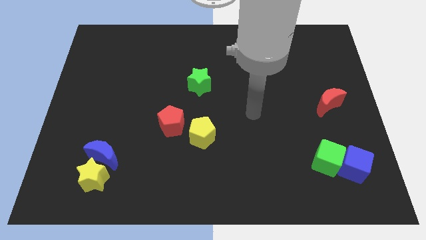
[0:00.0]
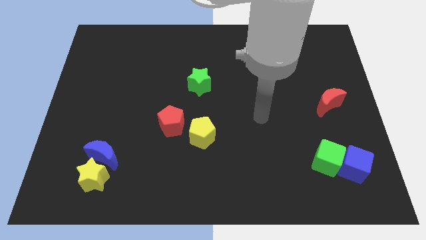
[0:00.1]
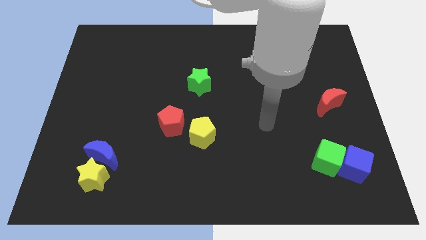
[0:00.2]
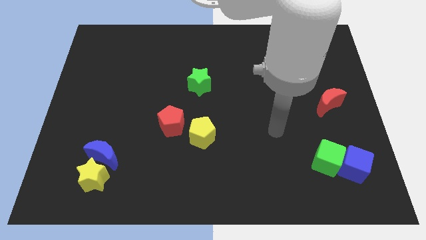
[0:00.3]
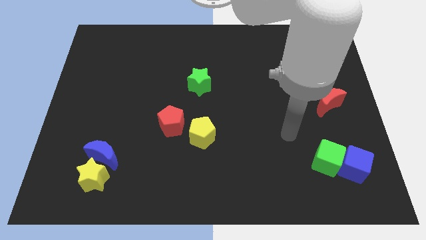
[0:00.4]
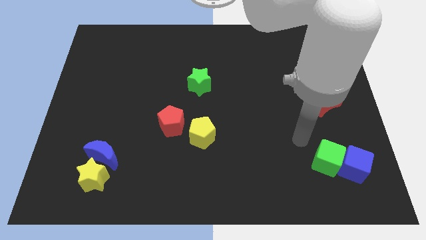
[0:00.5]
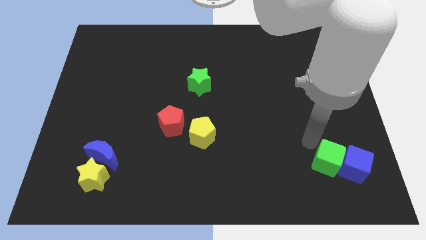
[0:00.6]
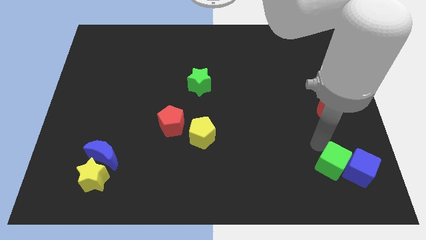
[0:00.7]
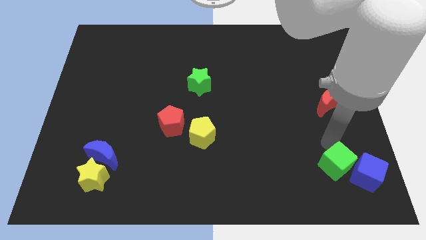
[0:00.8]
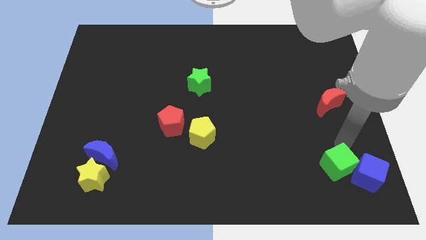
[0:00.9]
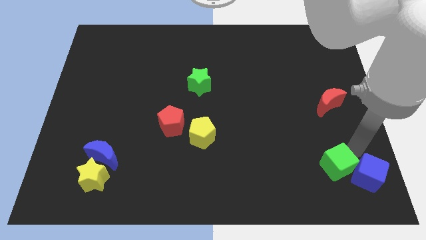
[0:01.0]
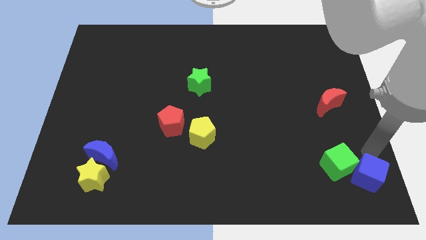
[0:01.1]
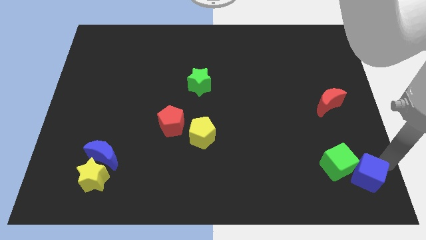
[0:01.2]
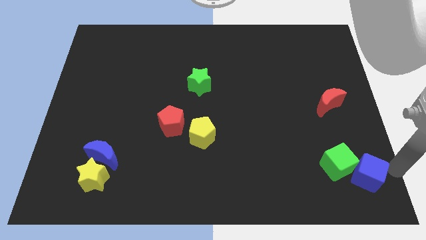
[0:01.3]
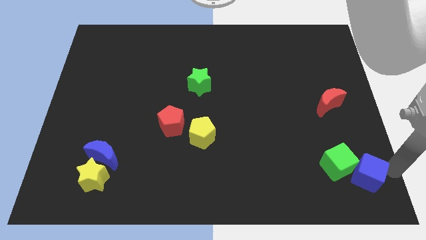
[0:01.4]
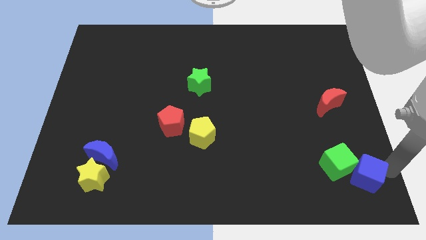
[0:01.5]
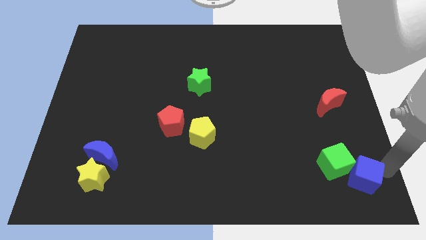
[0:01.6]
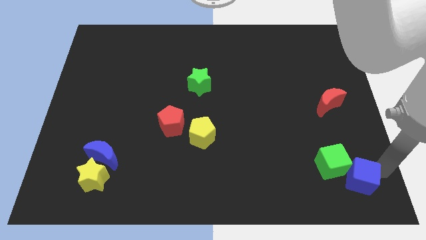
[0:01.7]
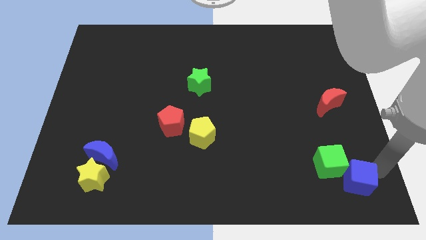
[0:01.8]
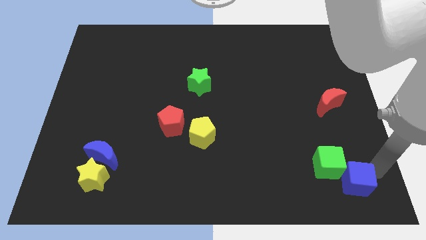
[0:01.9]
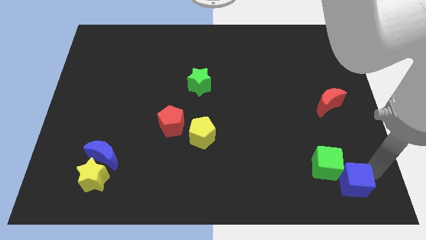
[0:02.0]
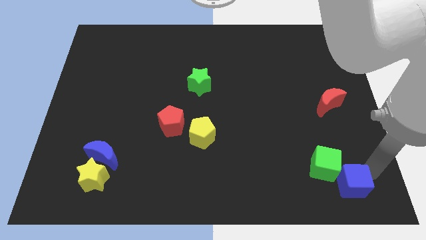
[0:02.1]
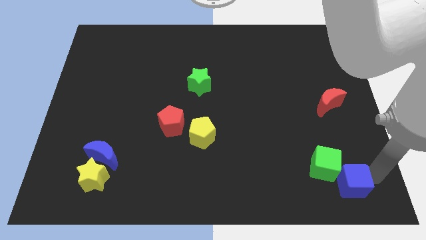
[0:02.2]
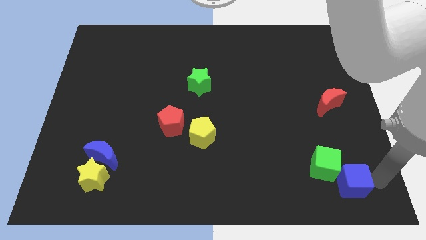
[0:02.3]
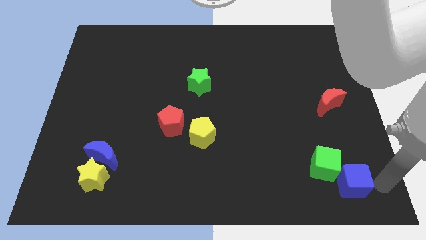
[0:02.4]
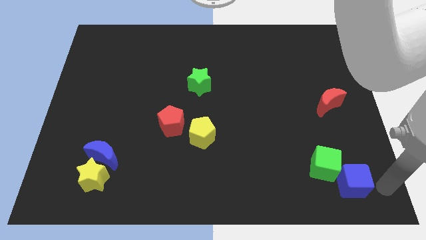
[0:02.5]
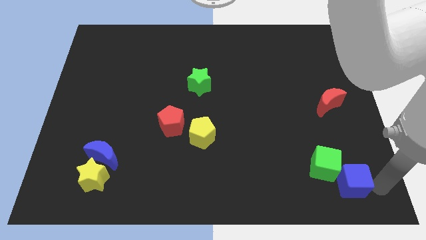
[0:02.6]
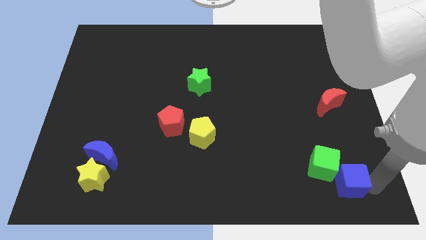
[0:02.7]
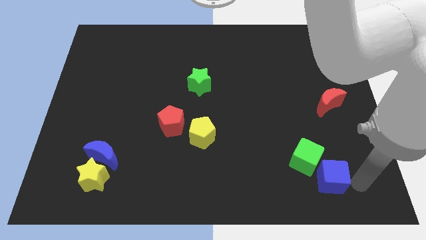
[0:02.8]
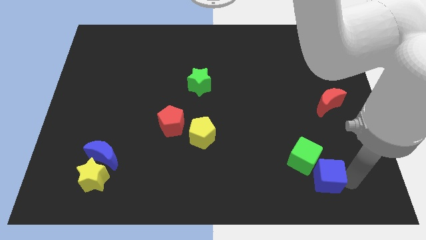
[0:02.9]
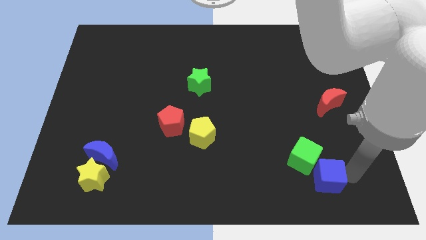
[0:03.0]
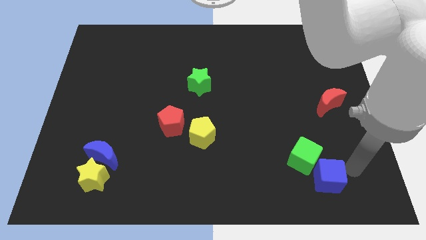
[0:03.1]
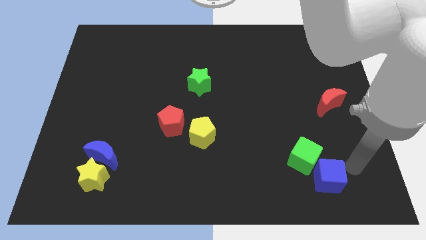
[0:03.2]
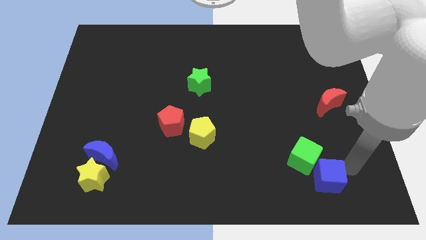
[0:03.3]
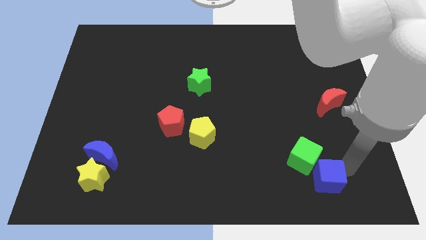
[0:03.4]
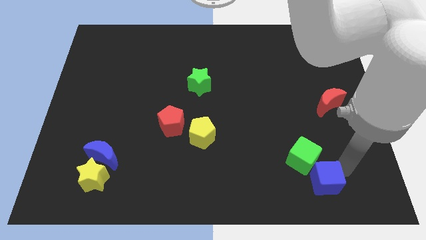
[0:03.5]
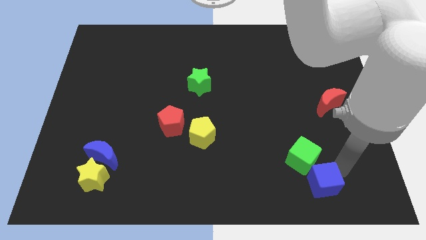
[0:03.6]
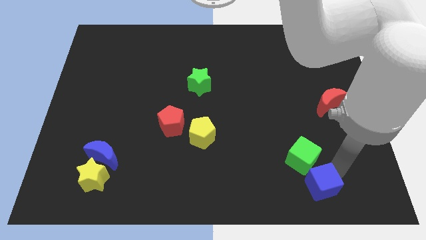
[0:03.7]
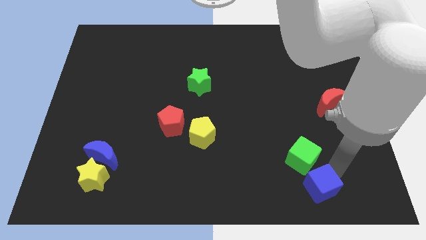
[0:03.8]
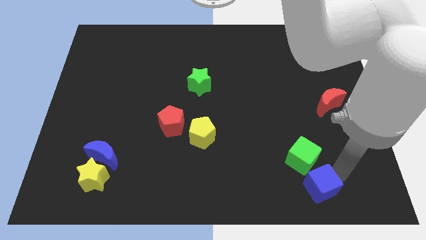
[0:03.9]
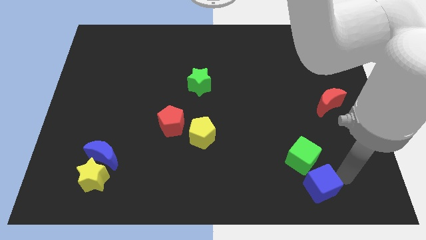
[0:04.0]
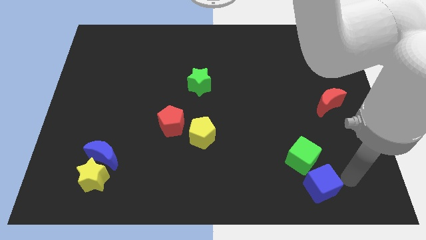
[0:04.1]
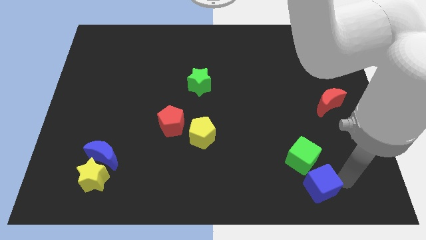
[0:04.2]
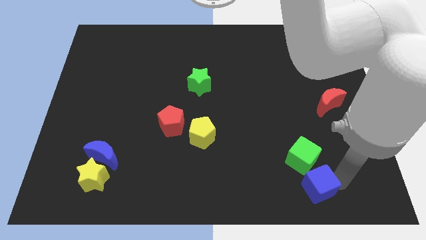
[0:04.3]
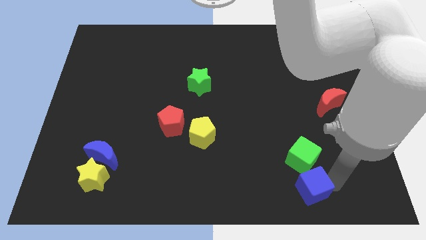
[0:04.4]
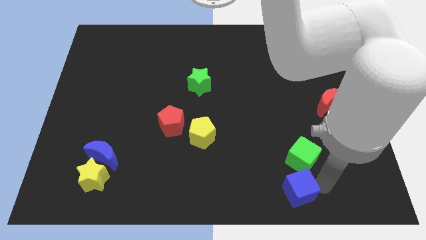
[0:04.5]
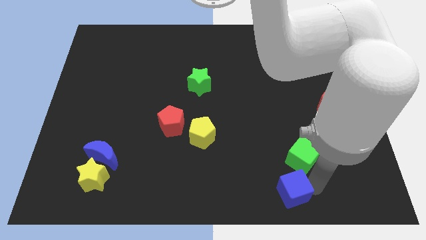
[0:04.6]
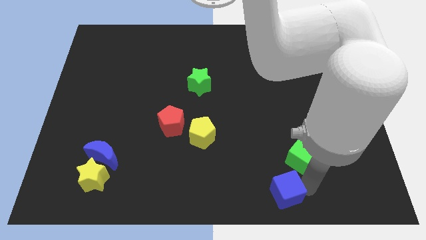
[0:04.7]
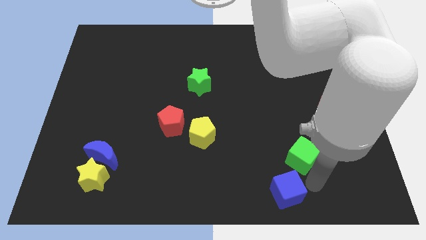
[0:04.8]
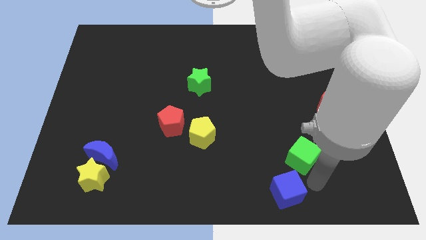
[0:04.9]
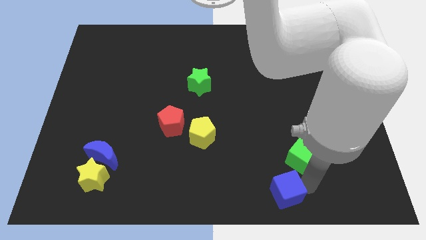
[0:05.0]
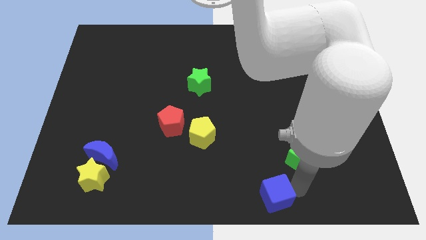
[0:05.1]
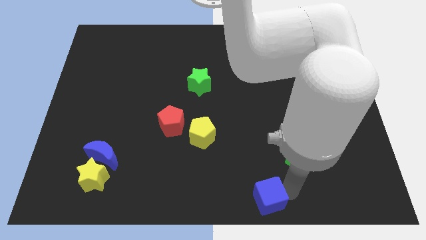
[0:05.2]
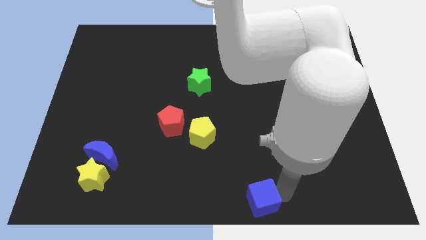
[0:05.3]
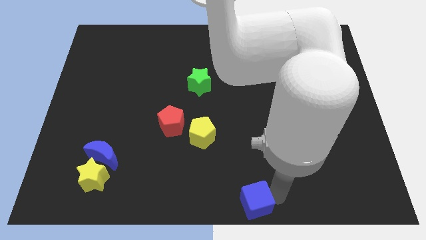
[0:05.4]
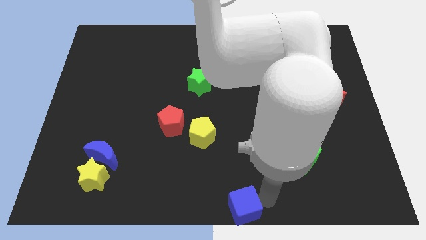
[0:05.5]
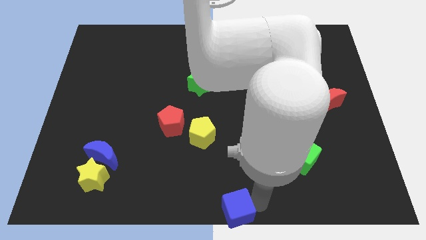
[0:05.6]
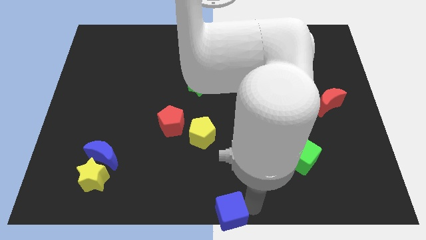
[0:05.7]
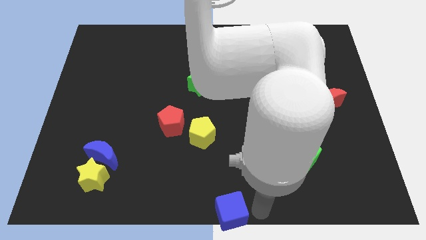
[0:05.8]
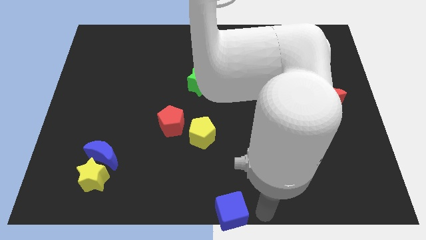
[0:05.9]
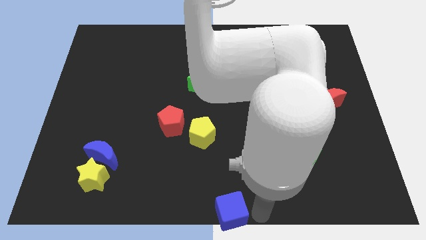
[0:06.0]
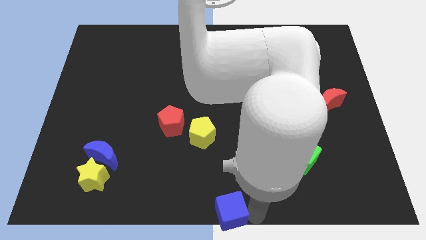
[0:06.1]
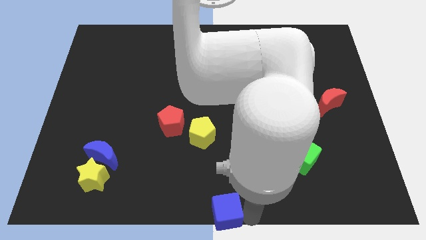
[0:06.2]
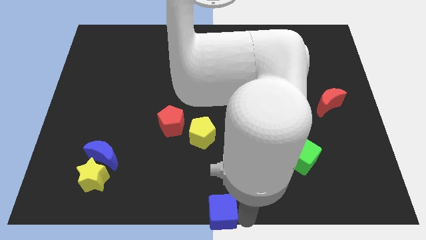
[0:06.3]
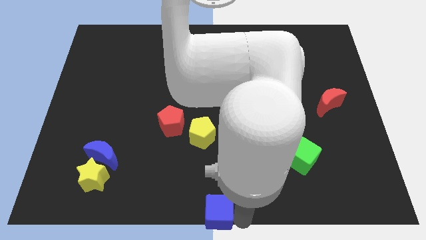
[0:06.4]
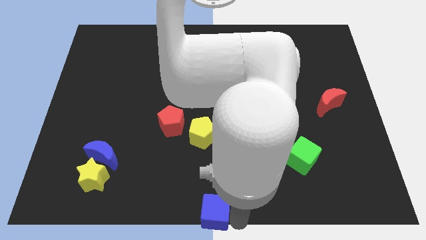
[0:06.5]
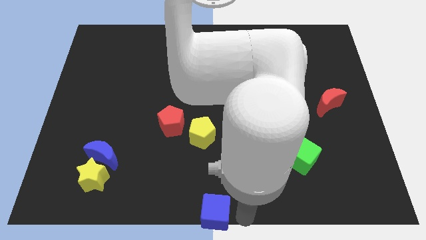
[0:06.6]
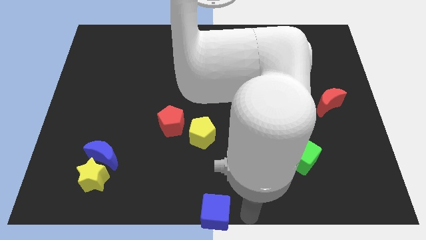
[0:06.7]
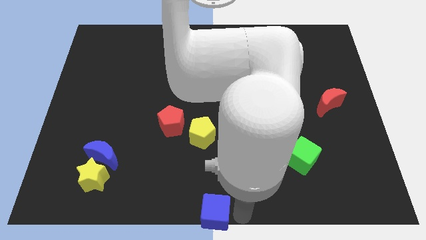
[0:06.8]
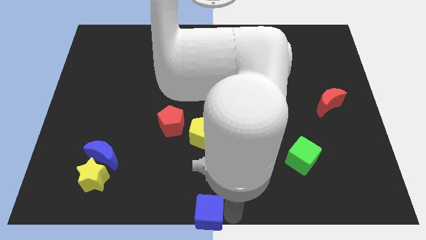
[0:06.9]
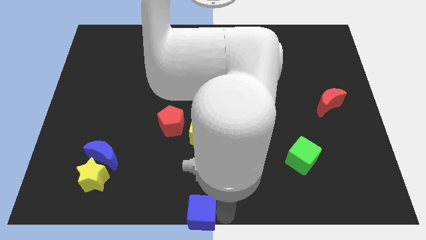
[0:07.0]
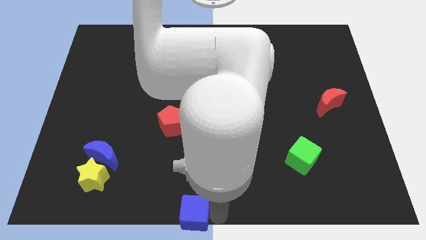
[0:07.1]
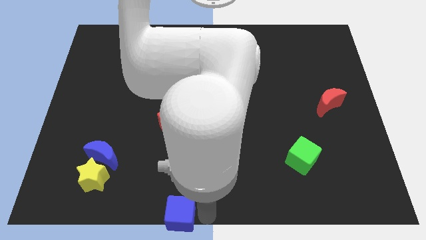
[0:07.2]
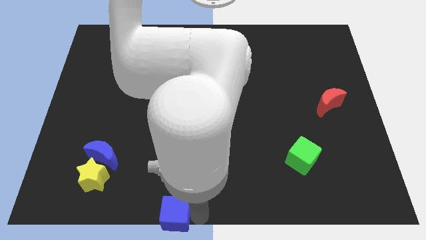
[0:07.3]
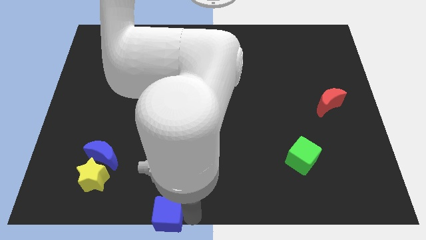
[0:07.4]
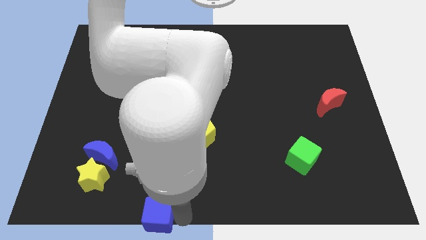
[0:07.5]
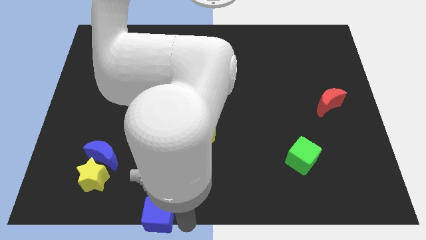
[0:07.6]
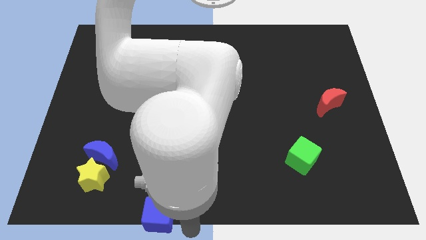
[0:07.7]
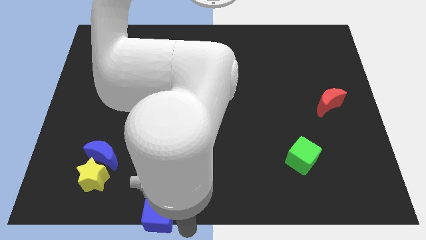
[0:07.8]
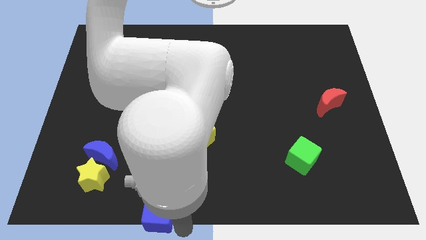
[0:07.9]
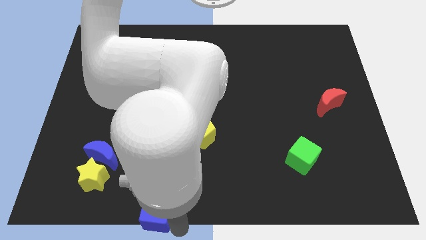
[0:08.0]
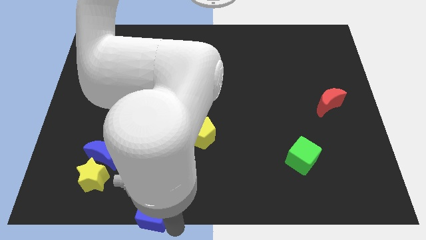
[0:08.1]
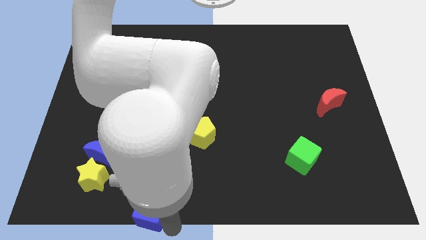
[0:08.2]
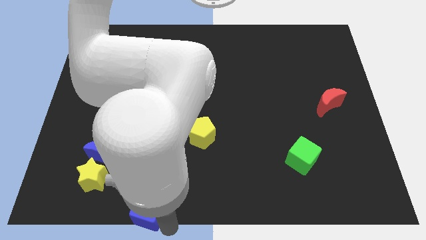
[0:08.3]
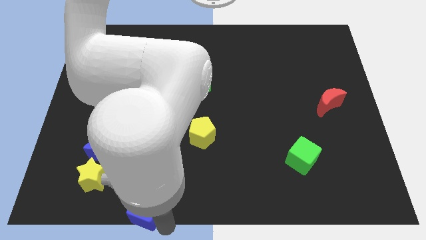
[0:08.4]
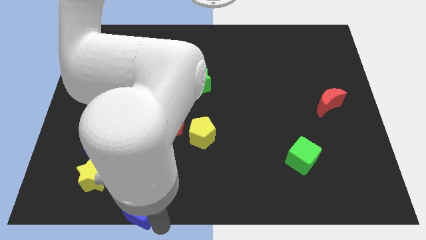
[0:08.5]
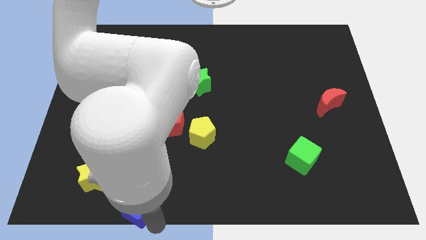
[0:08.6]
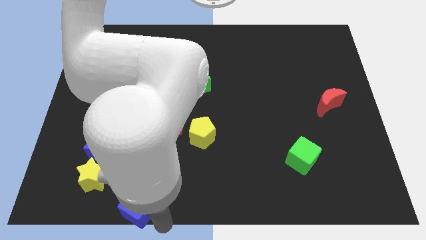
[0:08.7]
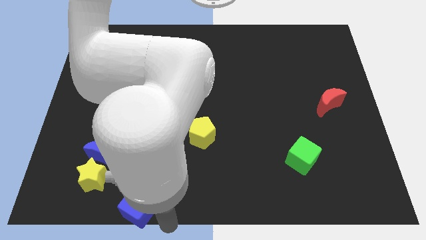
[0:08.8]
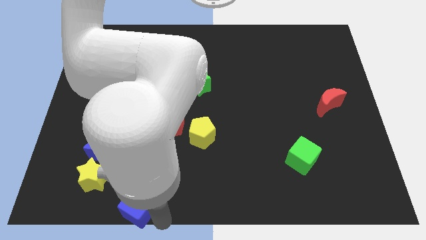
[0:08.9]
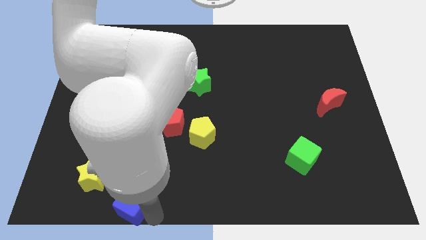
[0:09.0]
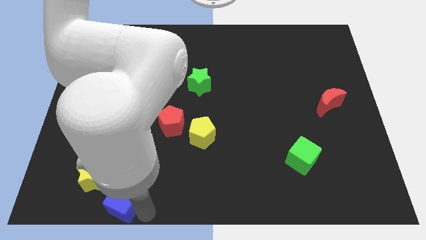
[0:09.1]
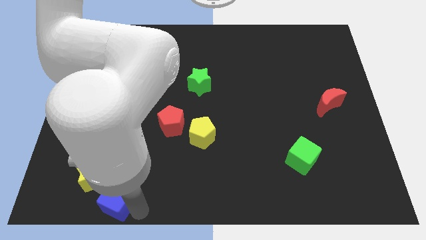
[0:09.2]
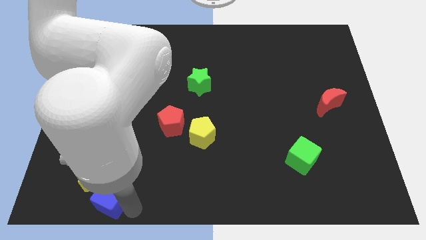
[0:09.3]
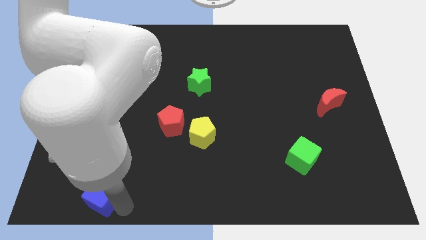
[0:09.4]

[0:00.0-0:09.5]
move the blue cube to the yellow star
